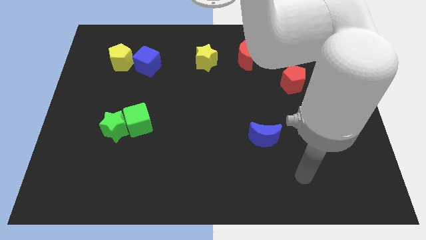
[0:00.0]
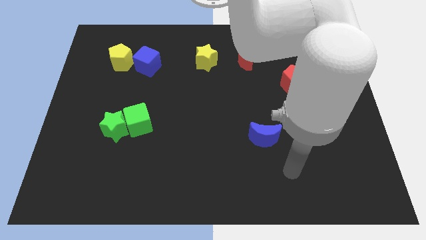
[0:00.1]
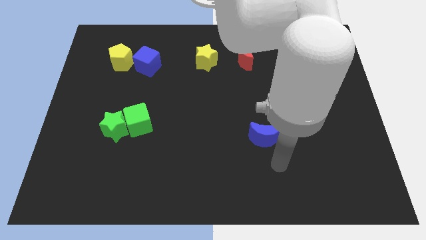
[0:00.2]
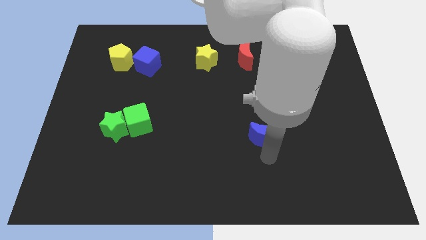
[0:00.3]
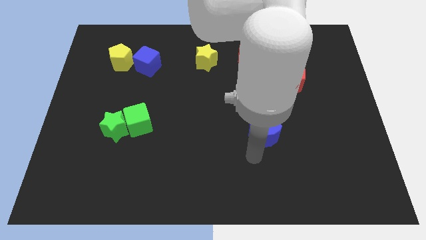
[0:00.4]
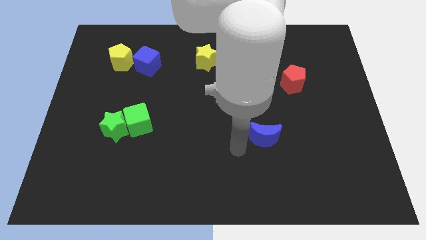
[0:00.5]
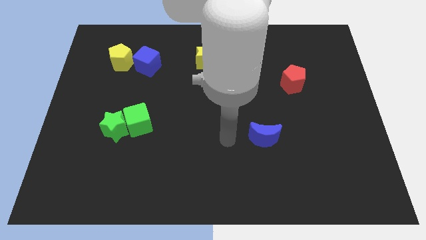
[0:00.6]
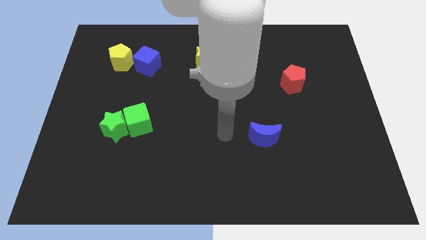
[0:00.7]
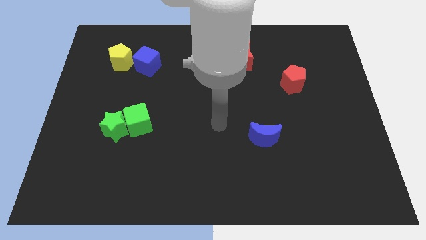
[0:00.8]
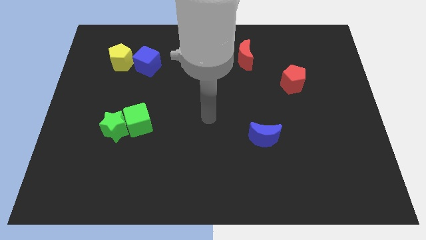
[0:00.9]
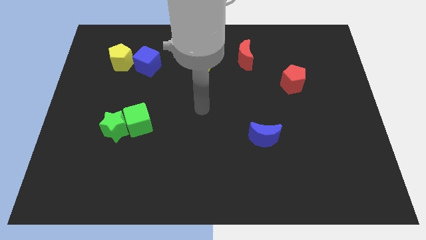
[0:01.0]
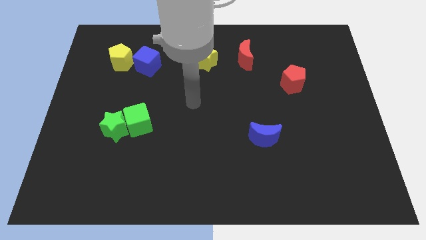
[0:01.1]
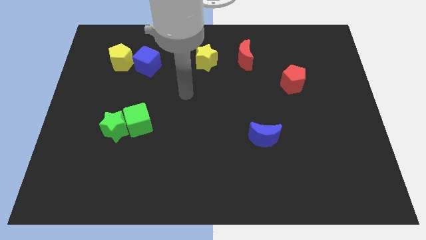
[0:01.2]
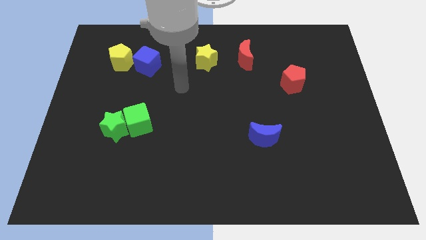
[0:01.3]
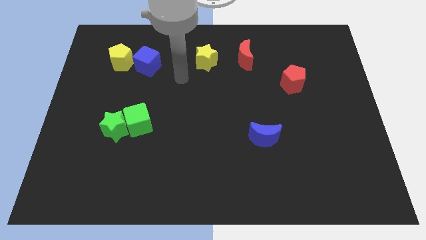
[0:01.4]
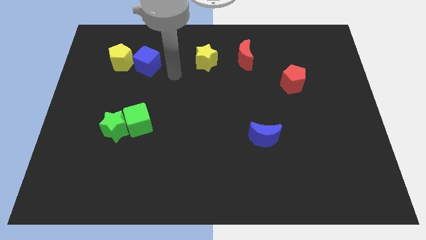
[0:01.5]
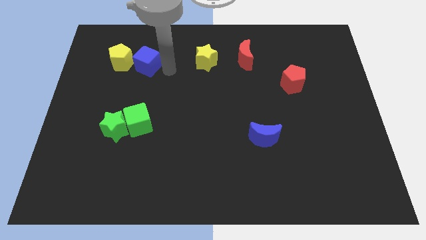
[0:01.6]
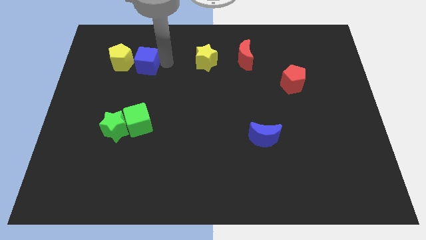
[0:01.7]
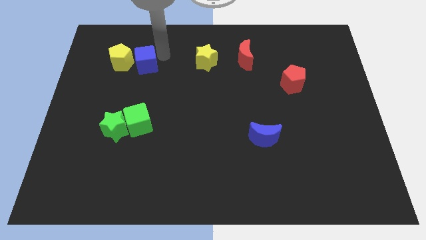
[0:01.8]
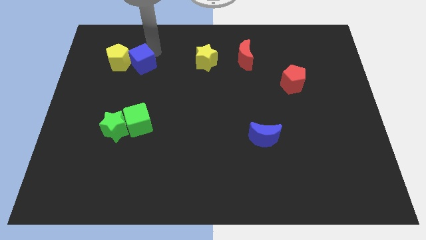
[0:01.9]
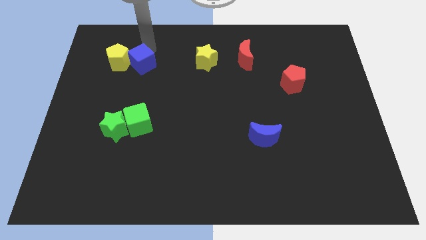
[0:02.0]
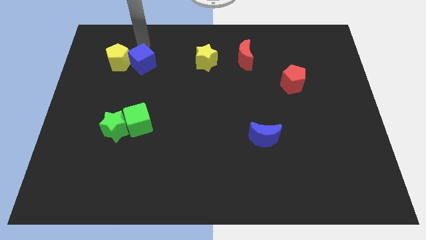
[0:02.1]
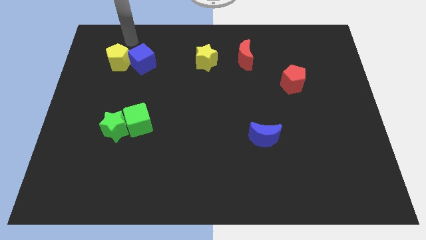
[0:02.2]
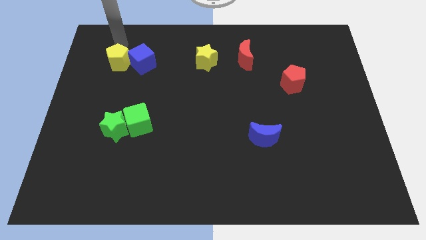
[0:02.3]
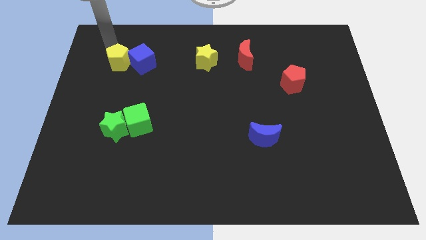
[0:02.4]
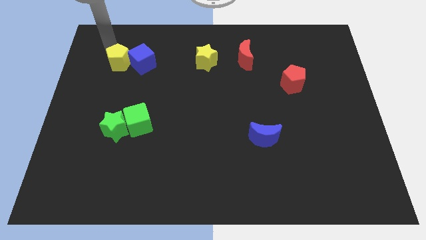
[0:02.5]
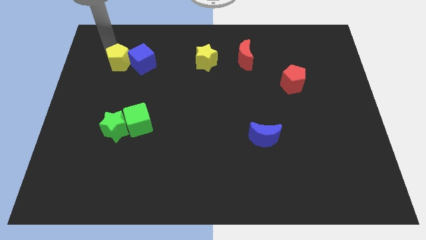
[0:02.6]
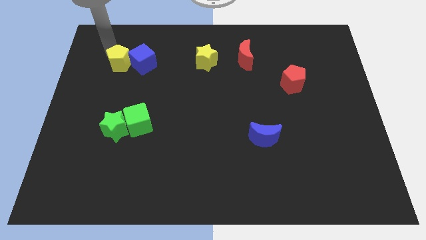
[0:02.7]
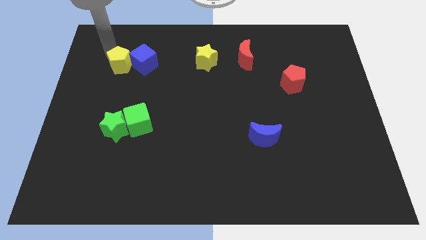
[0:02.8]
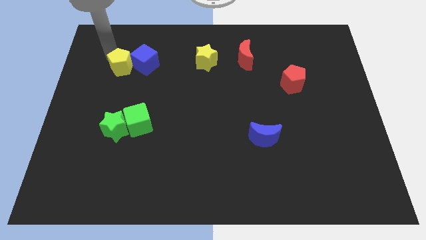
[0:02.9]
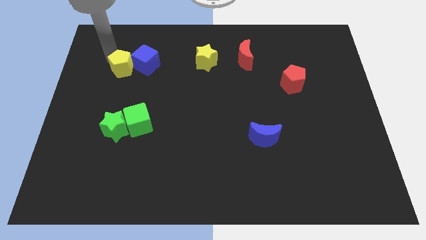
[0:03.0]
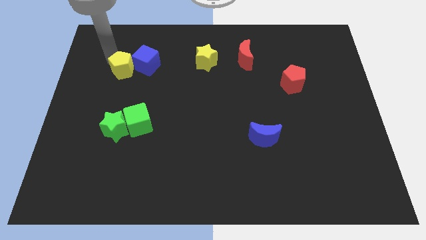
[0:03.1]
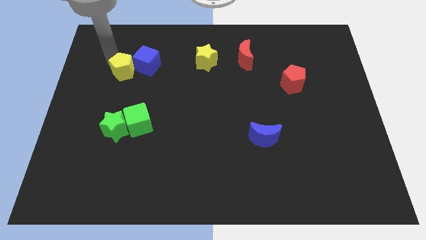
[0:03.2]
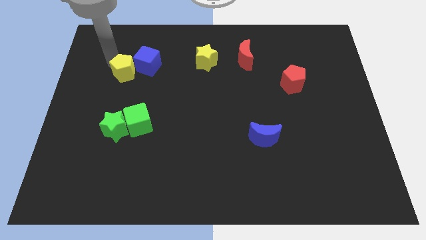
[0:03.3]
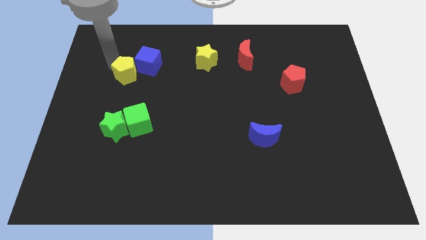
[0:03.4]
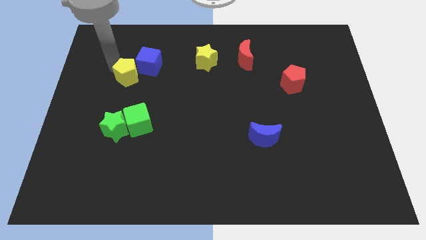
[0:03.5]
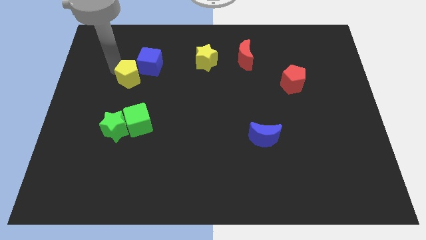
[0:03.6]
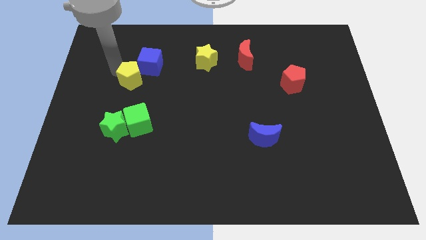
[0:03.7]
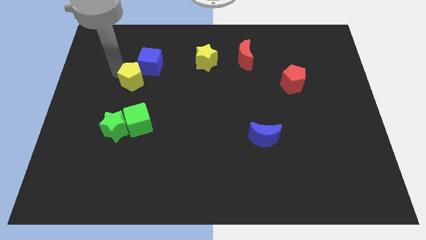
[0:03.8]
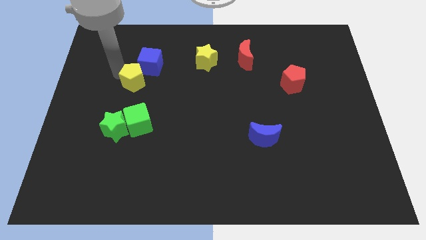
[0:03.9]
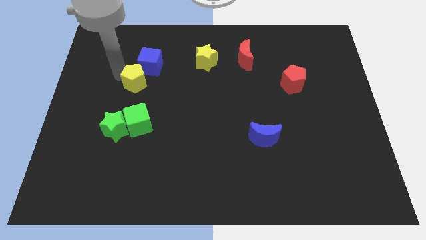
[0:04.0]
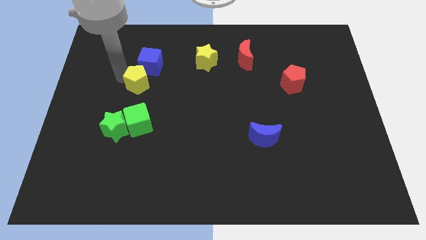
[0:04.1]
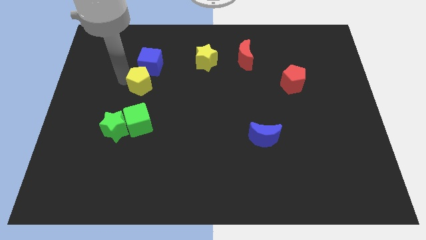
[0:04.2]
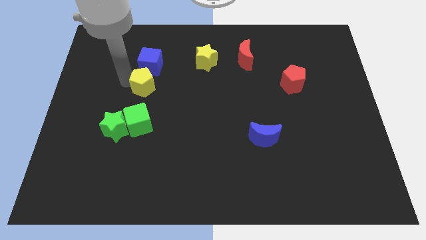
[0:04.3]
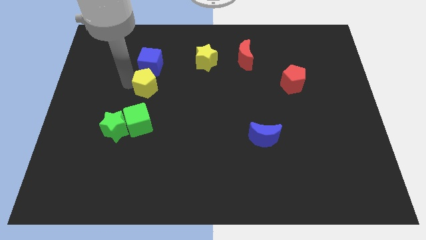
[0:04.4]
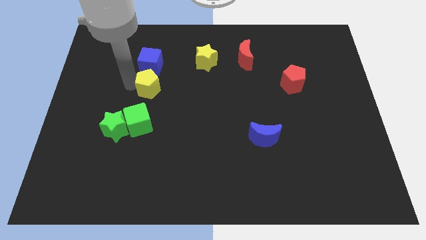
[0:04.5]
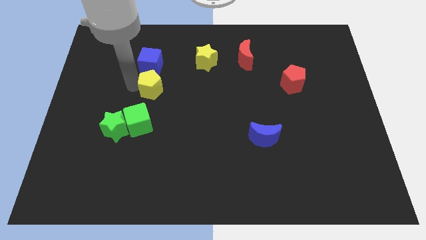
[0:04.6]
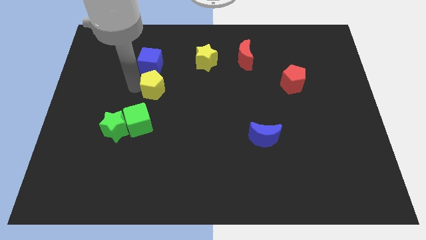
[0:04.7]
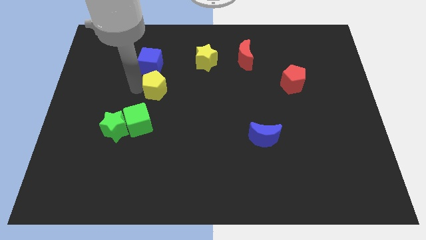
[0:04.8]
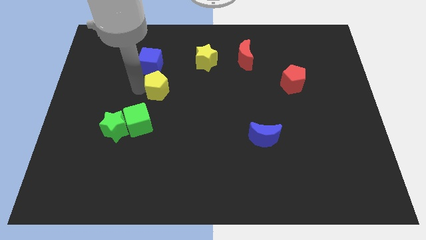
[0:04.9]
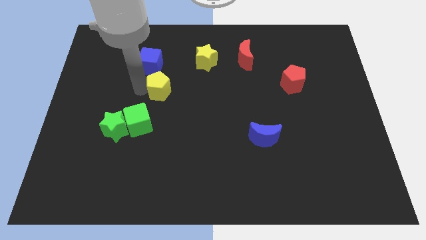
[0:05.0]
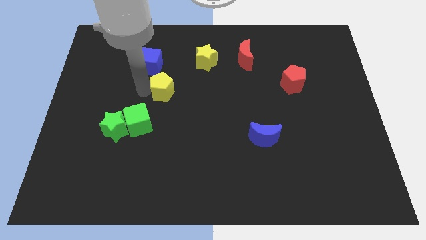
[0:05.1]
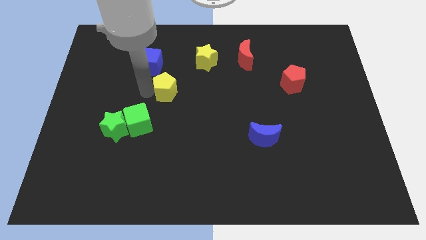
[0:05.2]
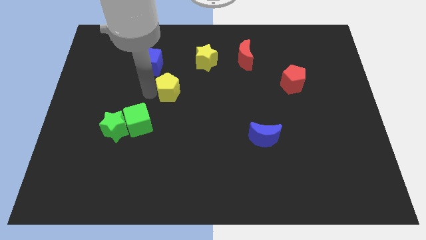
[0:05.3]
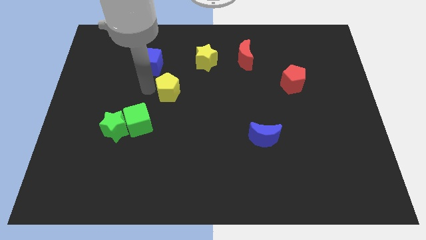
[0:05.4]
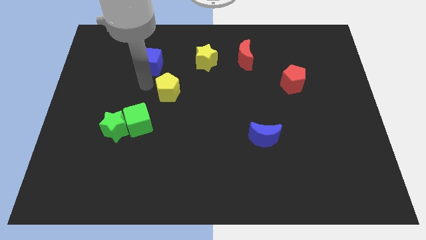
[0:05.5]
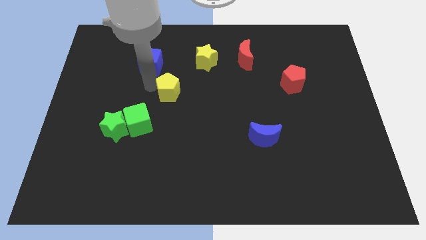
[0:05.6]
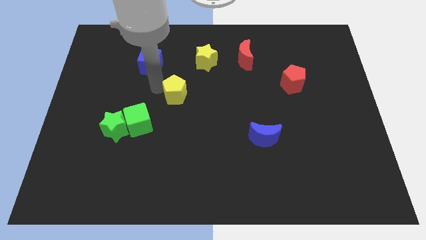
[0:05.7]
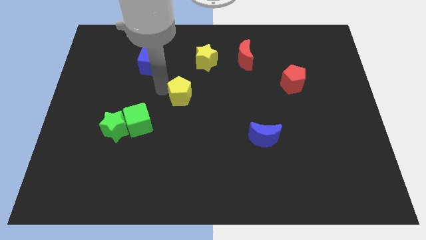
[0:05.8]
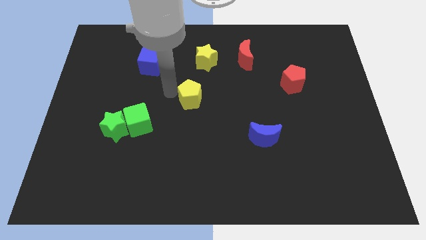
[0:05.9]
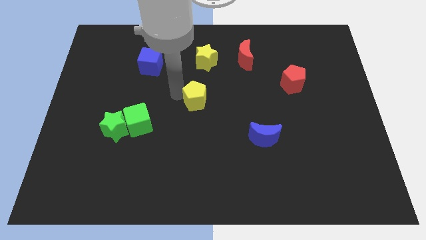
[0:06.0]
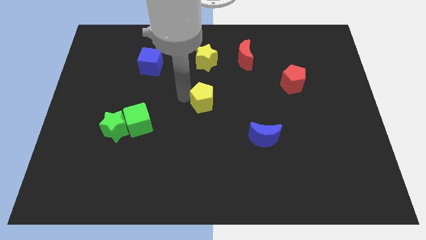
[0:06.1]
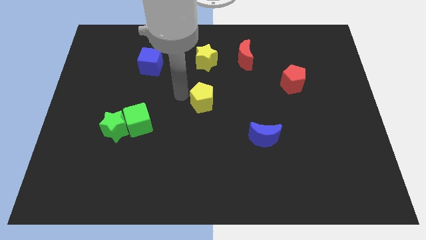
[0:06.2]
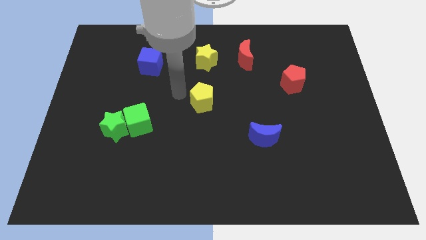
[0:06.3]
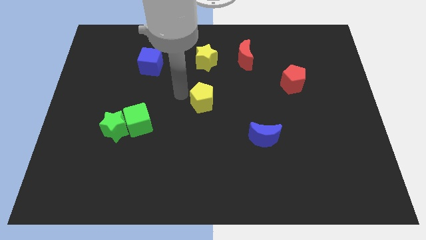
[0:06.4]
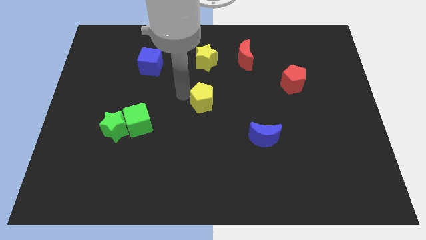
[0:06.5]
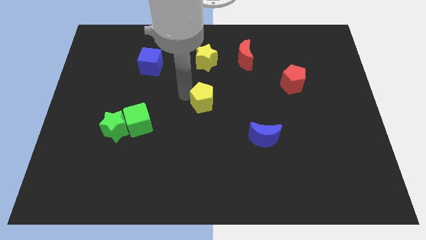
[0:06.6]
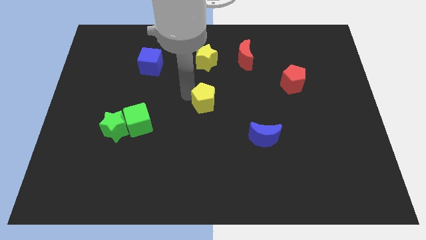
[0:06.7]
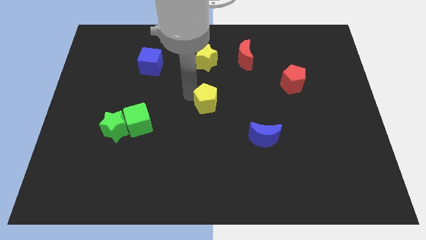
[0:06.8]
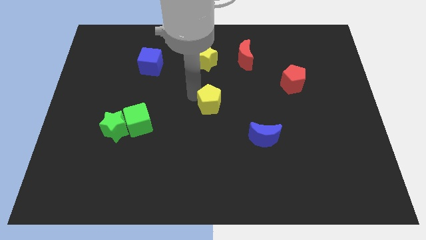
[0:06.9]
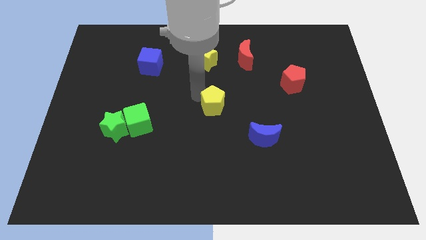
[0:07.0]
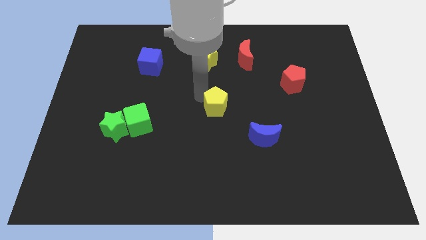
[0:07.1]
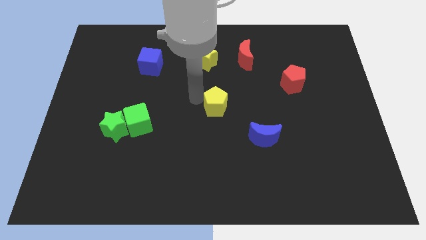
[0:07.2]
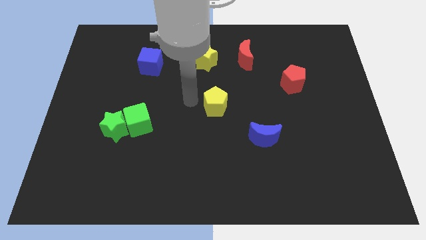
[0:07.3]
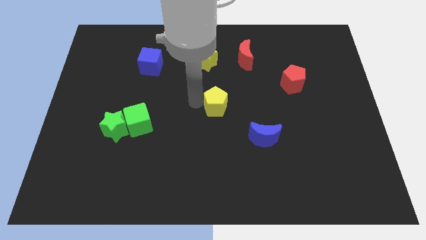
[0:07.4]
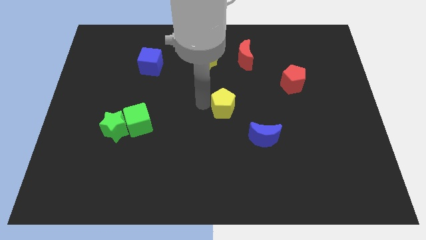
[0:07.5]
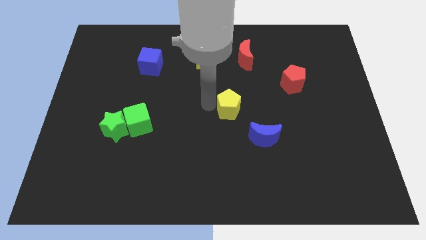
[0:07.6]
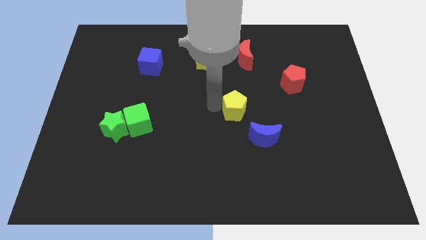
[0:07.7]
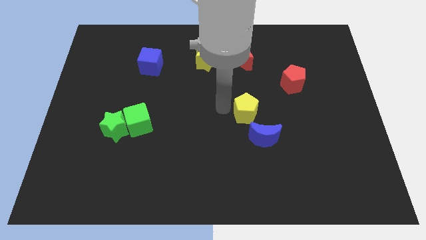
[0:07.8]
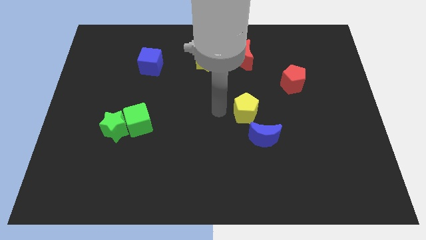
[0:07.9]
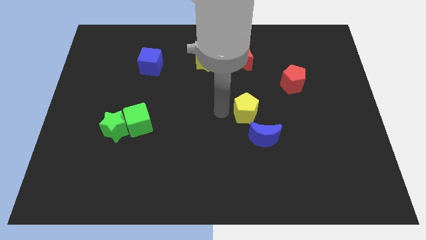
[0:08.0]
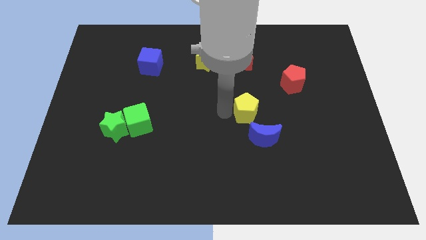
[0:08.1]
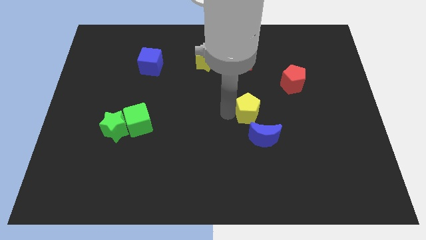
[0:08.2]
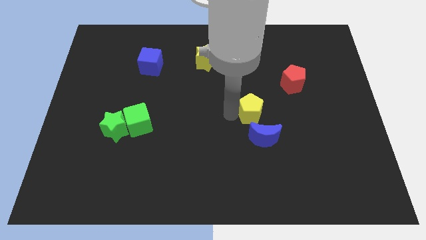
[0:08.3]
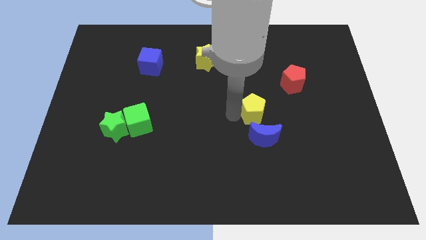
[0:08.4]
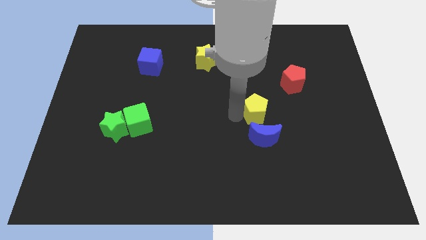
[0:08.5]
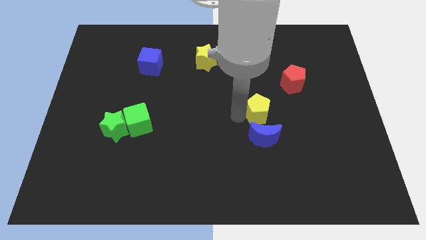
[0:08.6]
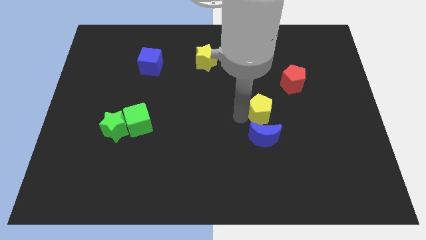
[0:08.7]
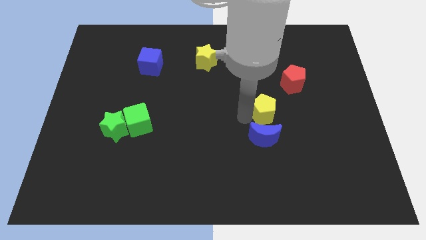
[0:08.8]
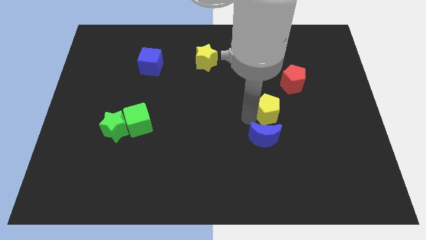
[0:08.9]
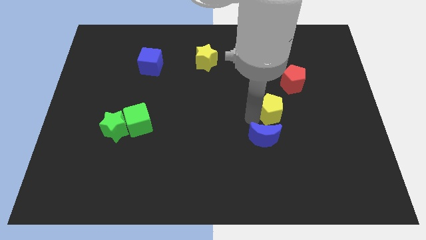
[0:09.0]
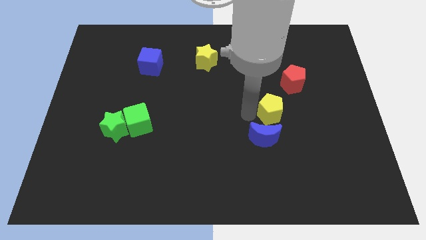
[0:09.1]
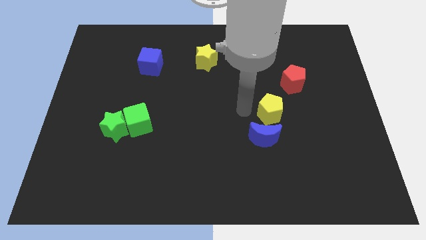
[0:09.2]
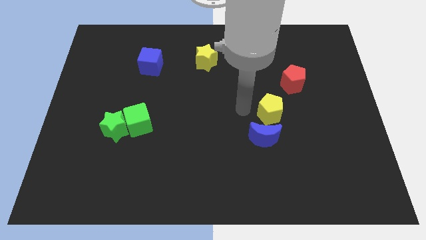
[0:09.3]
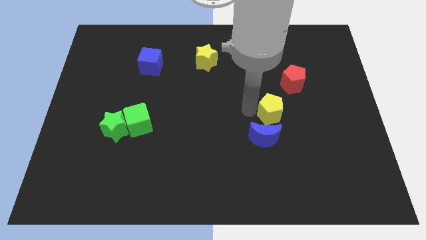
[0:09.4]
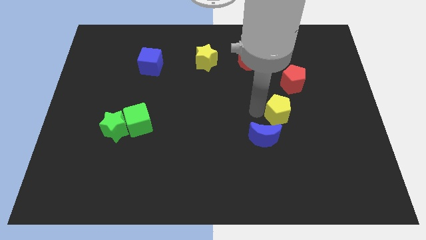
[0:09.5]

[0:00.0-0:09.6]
put the yellow pentagon below the red pentagon
